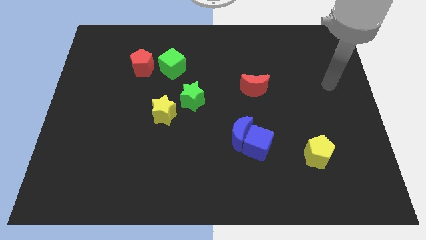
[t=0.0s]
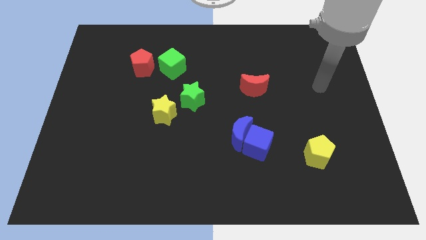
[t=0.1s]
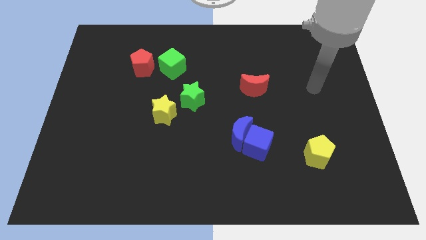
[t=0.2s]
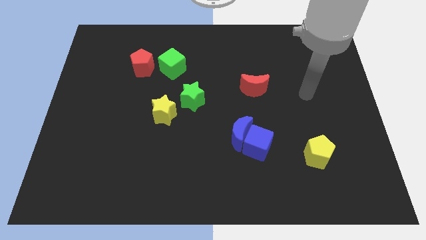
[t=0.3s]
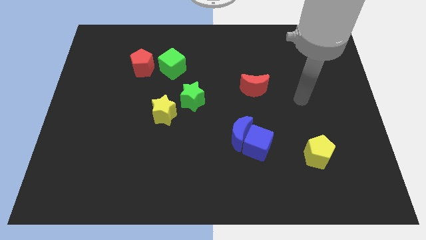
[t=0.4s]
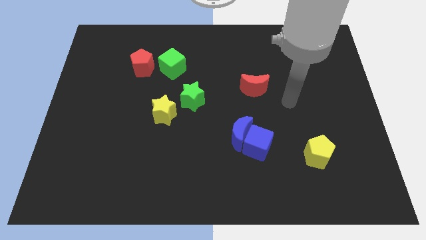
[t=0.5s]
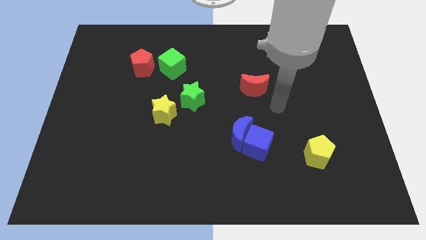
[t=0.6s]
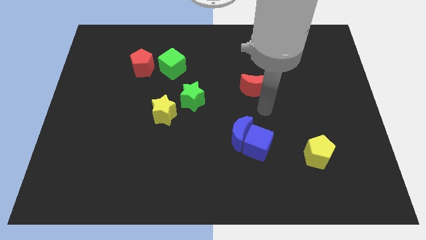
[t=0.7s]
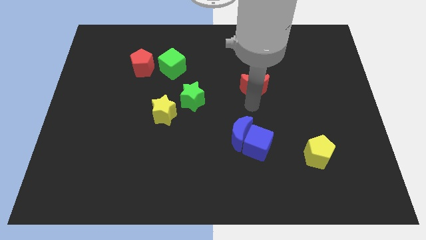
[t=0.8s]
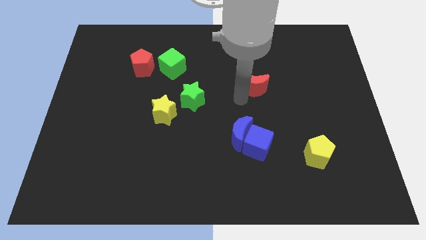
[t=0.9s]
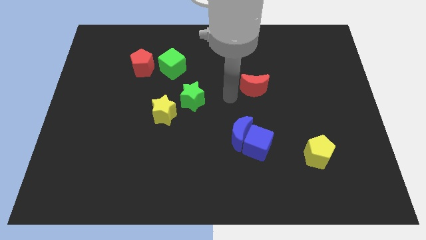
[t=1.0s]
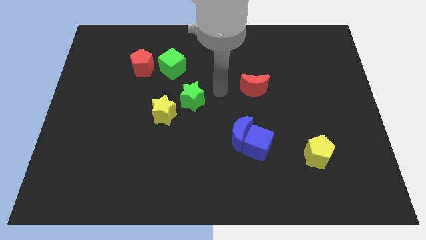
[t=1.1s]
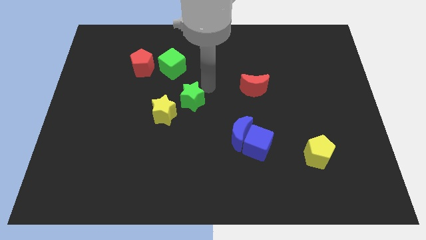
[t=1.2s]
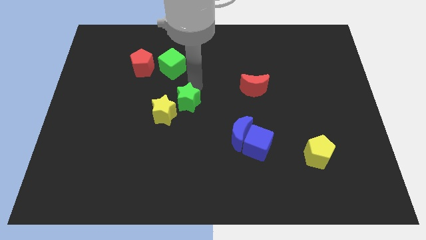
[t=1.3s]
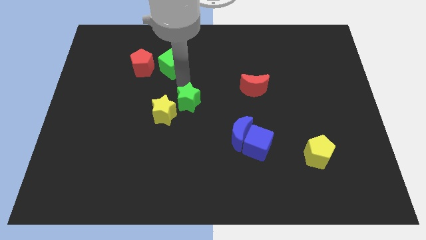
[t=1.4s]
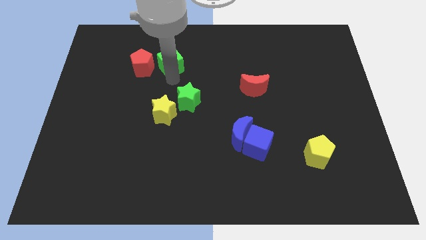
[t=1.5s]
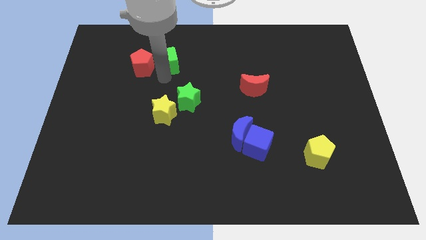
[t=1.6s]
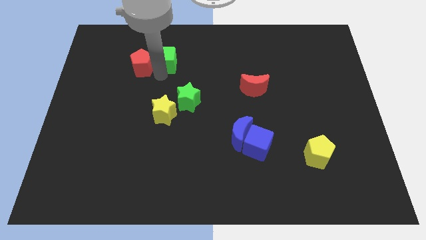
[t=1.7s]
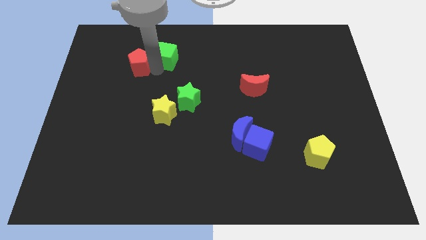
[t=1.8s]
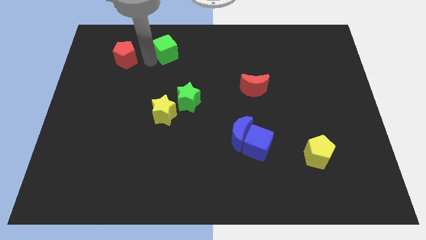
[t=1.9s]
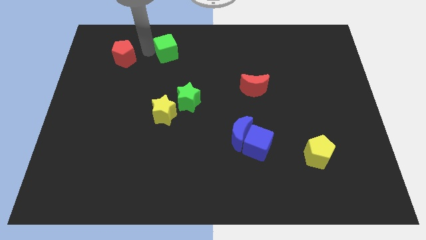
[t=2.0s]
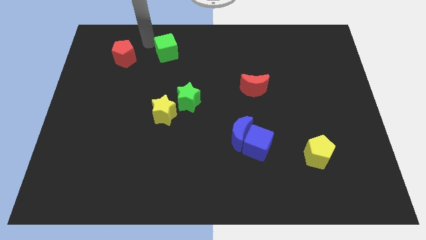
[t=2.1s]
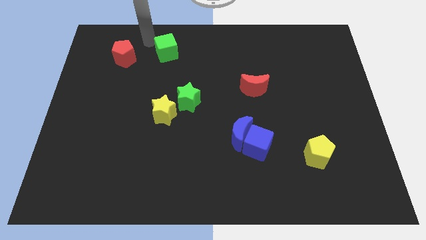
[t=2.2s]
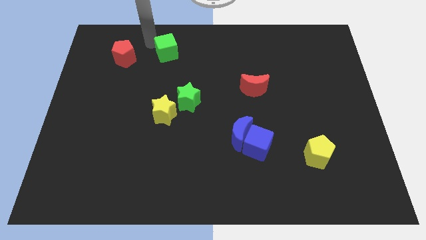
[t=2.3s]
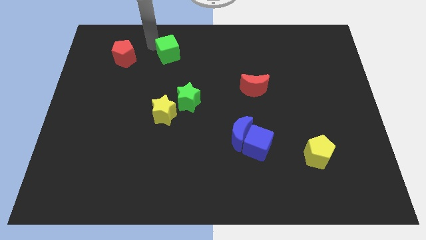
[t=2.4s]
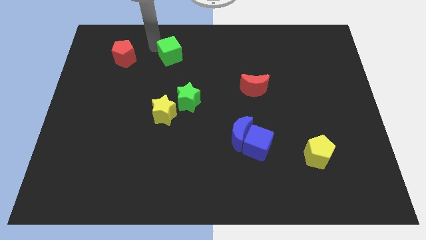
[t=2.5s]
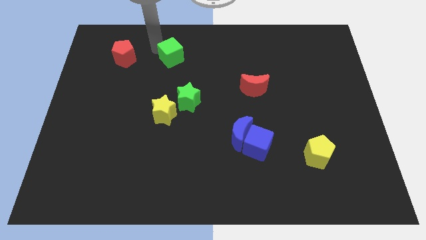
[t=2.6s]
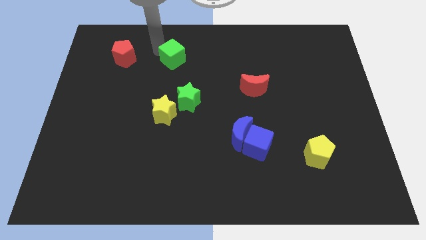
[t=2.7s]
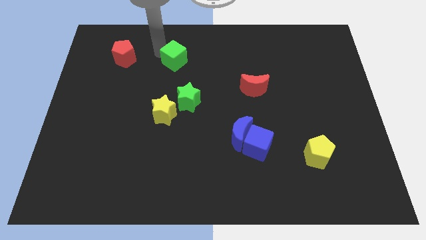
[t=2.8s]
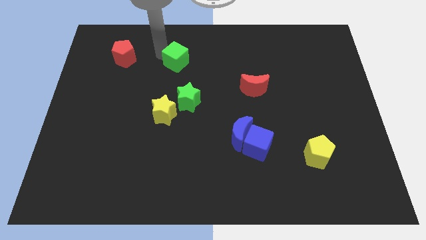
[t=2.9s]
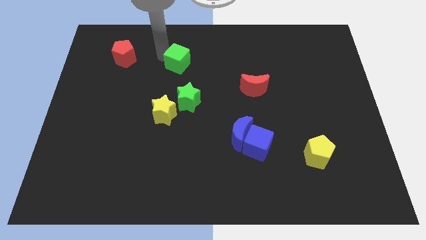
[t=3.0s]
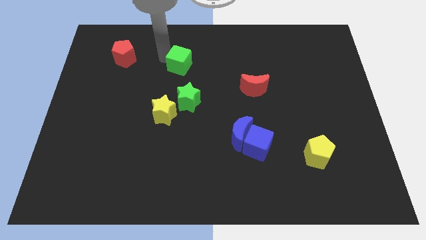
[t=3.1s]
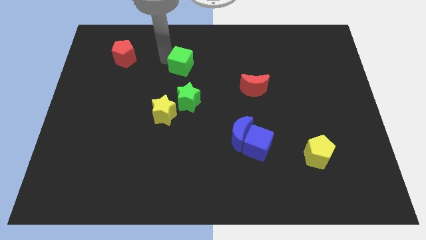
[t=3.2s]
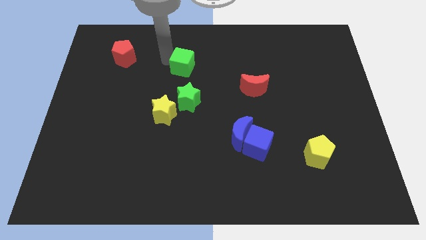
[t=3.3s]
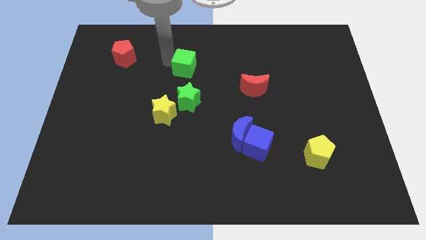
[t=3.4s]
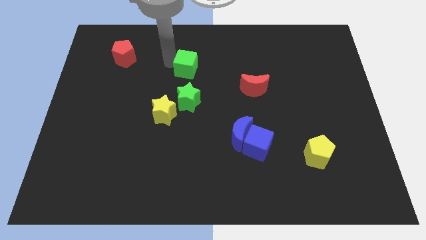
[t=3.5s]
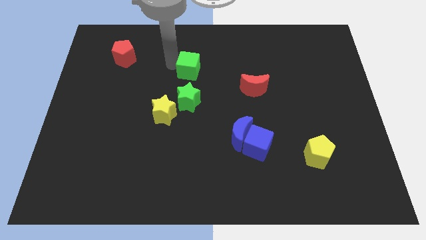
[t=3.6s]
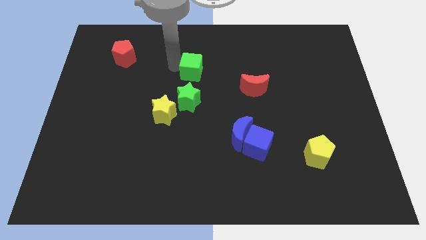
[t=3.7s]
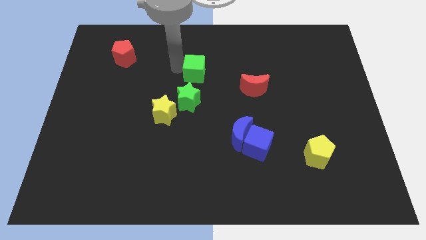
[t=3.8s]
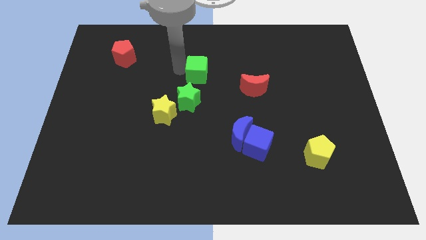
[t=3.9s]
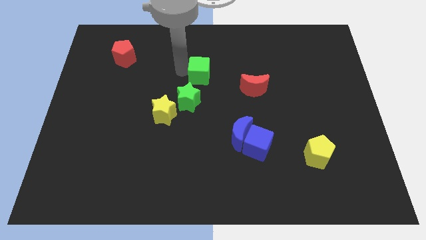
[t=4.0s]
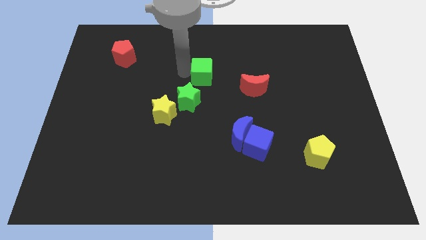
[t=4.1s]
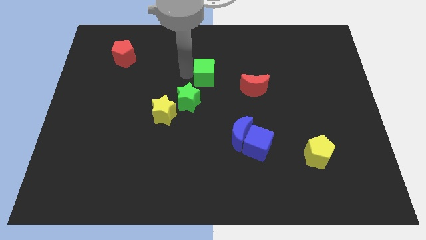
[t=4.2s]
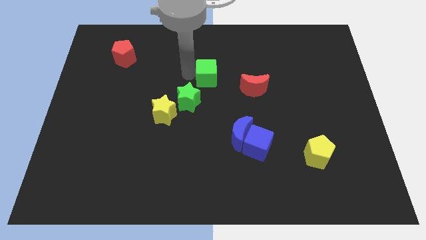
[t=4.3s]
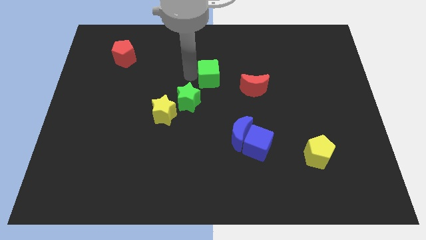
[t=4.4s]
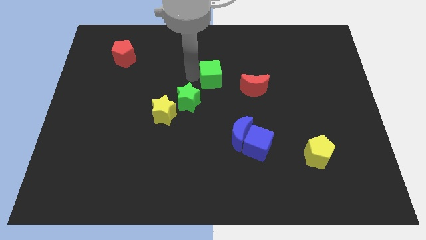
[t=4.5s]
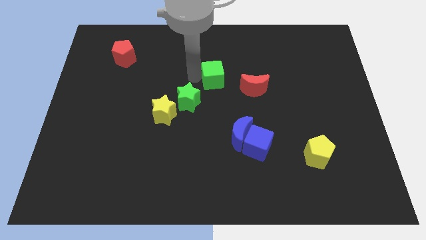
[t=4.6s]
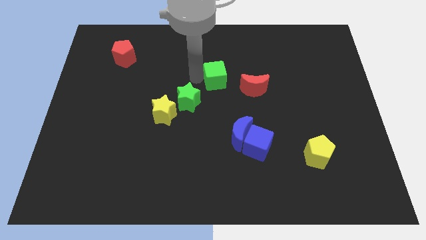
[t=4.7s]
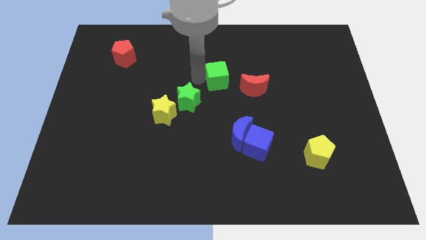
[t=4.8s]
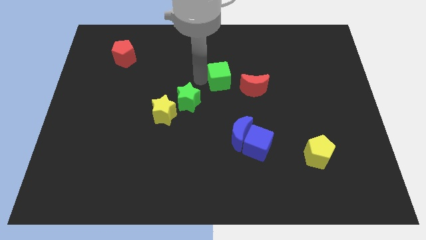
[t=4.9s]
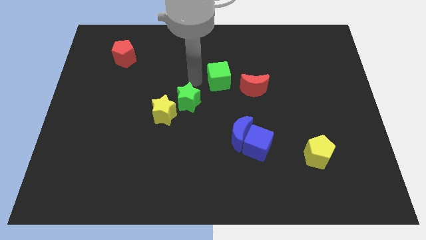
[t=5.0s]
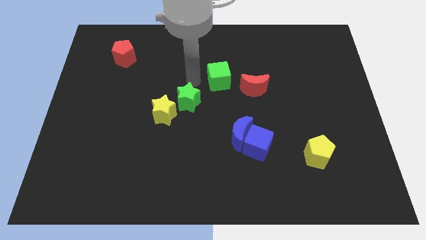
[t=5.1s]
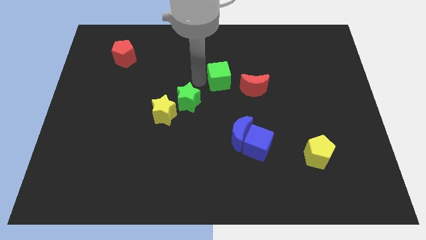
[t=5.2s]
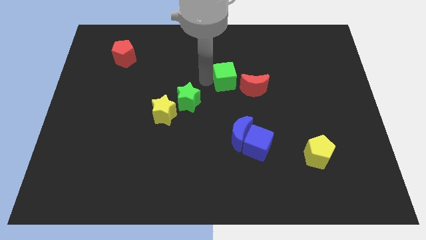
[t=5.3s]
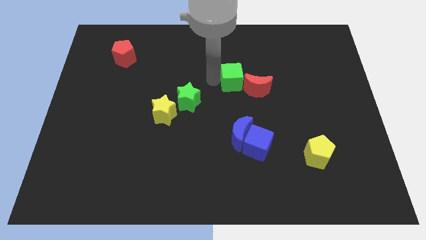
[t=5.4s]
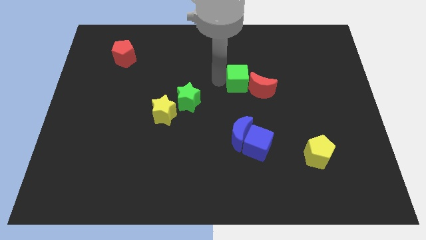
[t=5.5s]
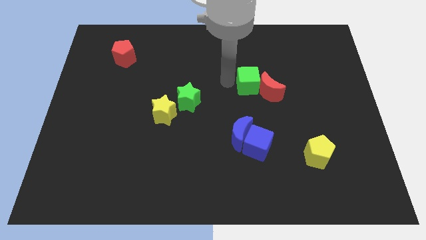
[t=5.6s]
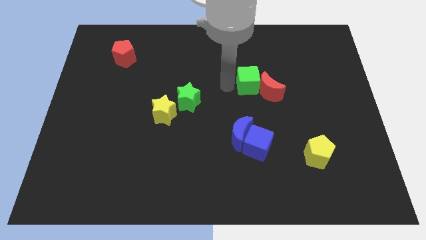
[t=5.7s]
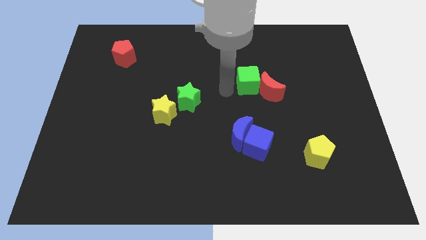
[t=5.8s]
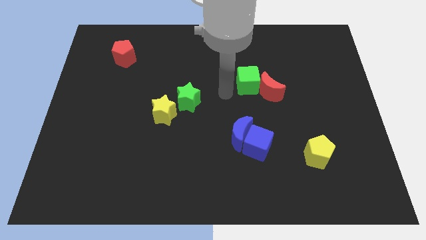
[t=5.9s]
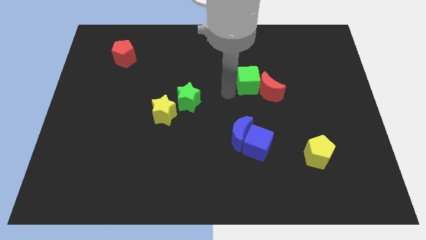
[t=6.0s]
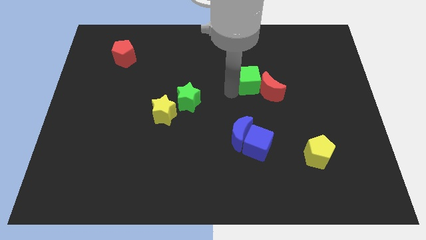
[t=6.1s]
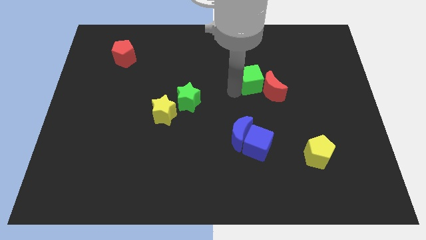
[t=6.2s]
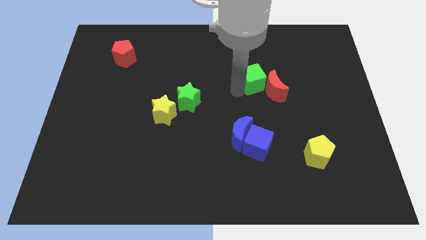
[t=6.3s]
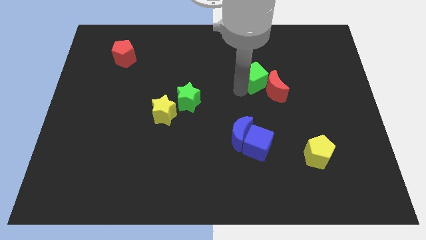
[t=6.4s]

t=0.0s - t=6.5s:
slide the green cube right

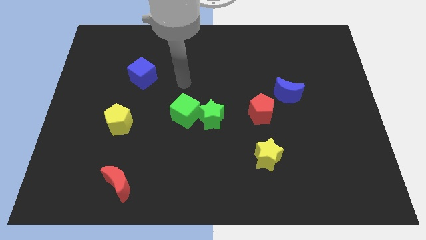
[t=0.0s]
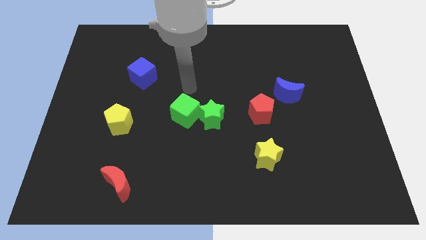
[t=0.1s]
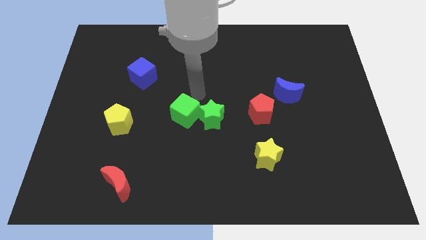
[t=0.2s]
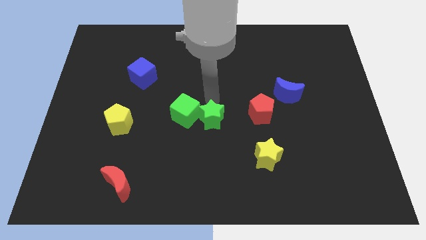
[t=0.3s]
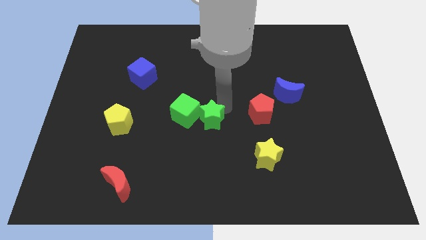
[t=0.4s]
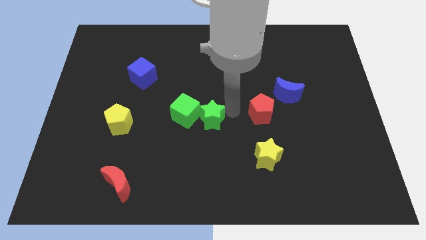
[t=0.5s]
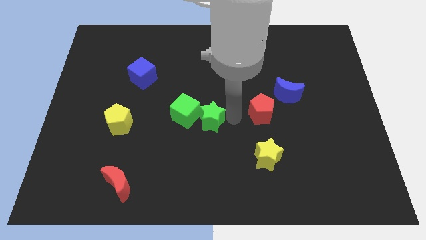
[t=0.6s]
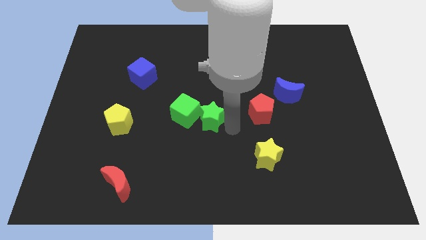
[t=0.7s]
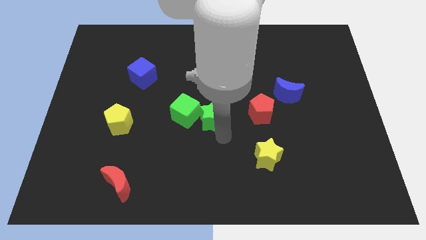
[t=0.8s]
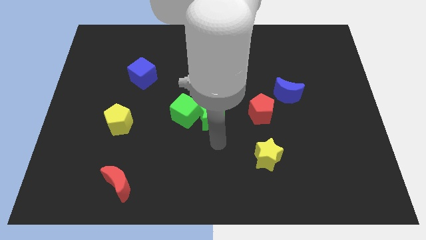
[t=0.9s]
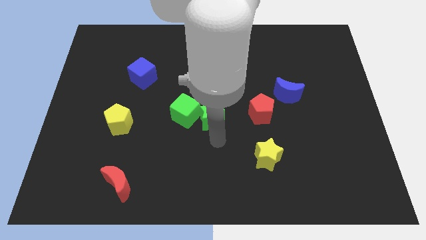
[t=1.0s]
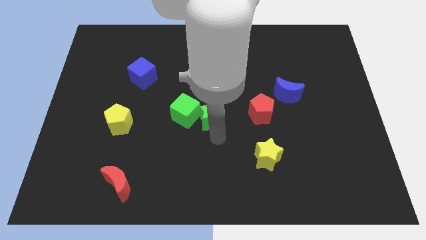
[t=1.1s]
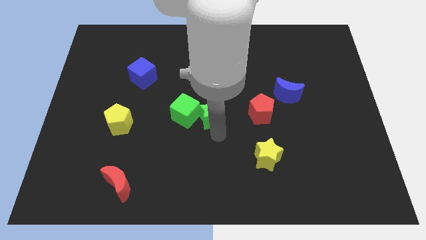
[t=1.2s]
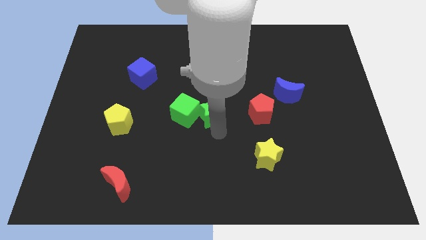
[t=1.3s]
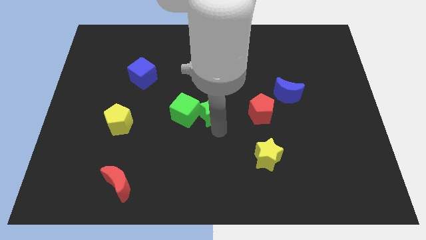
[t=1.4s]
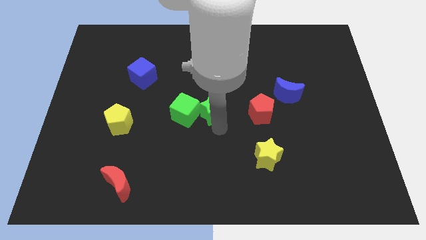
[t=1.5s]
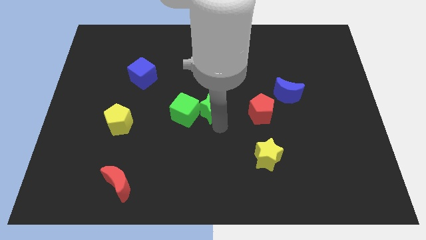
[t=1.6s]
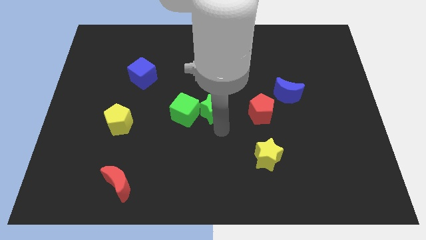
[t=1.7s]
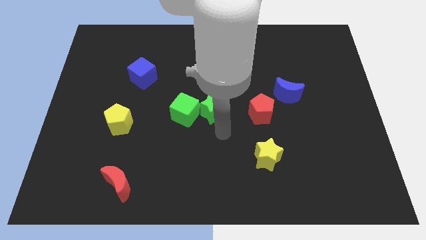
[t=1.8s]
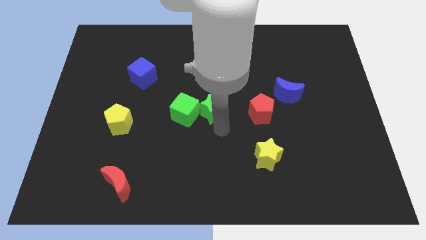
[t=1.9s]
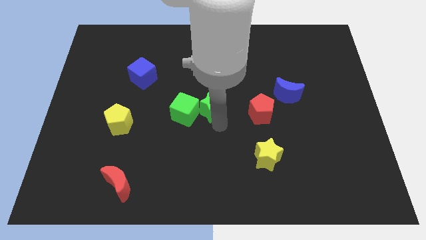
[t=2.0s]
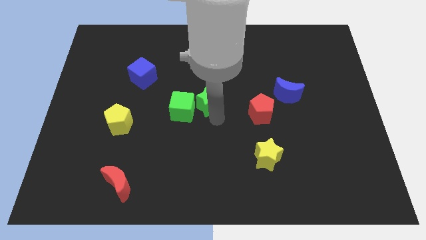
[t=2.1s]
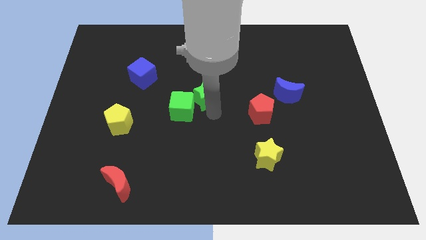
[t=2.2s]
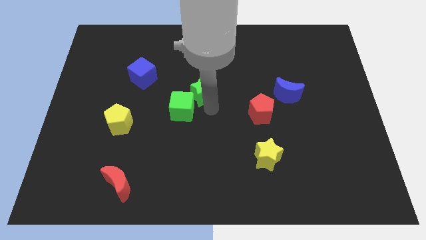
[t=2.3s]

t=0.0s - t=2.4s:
slightly slide the green star up
